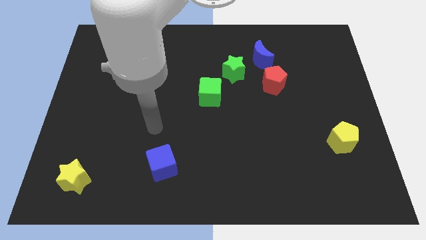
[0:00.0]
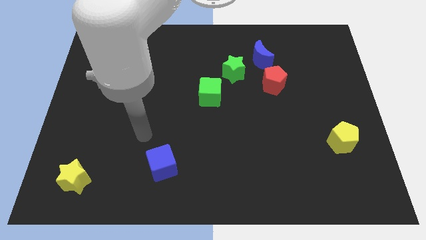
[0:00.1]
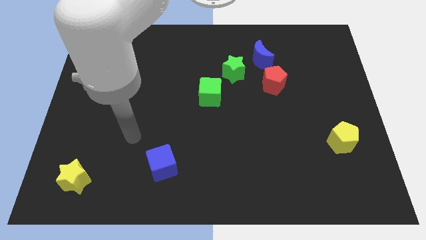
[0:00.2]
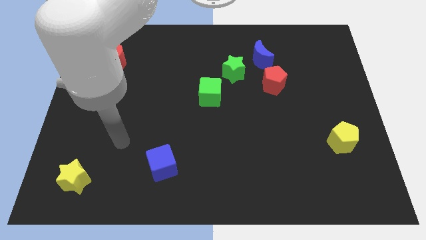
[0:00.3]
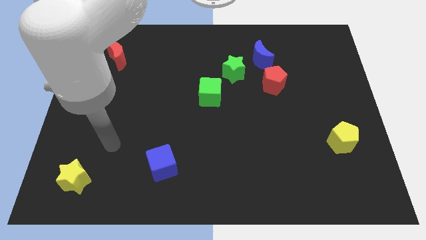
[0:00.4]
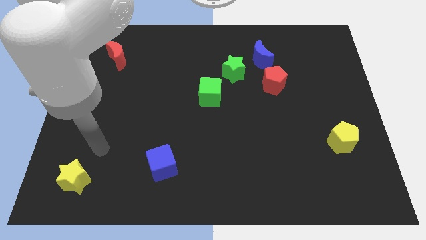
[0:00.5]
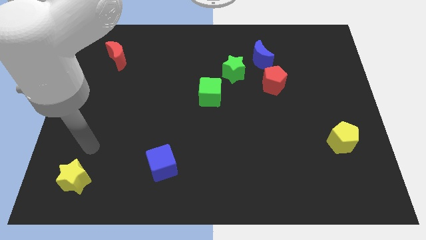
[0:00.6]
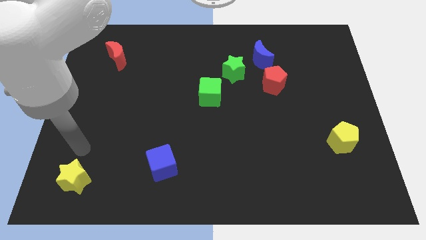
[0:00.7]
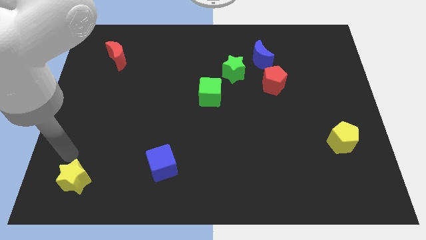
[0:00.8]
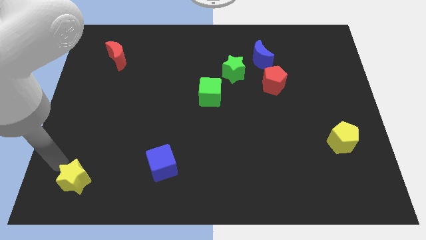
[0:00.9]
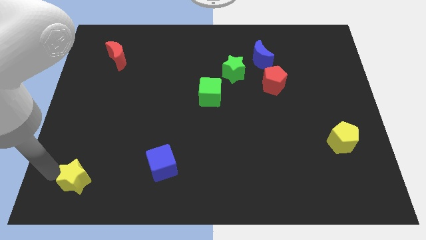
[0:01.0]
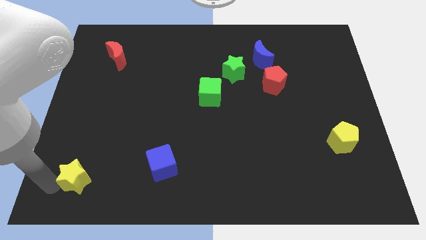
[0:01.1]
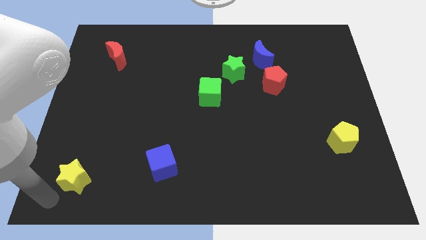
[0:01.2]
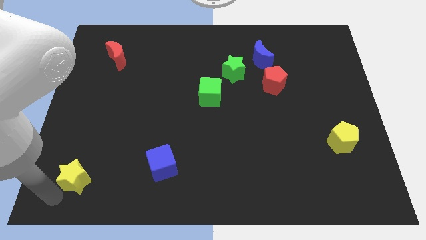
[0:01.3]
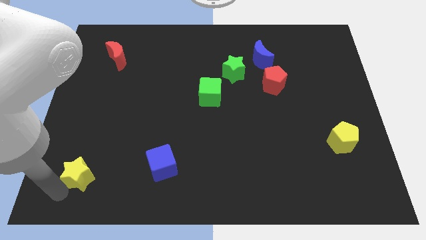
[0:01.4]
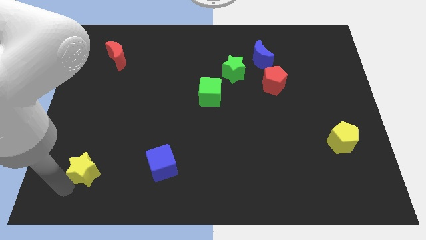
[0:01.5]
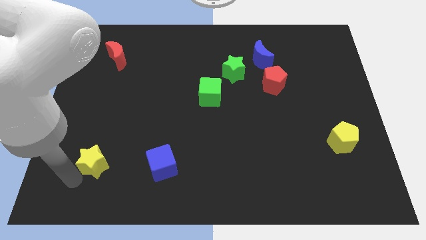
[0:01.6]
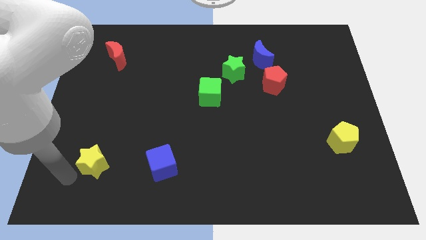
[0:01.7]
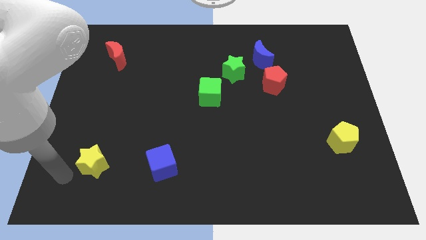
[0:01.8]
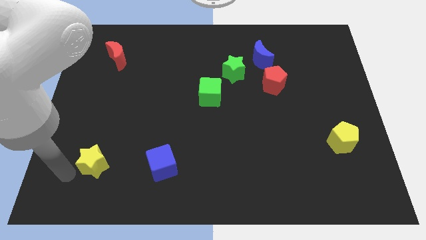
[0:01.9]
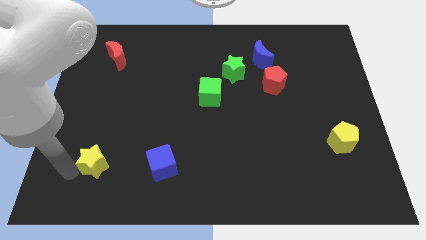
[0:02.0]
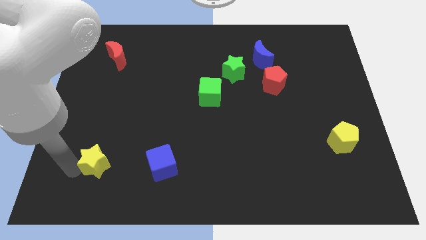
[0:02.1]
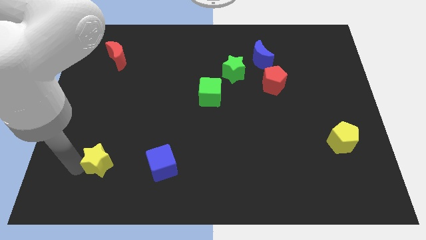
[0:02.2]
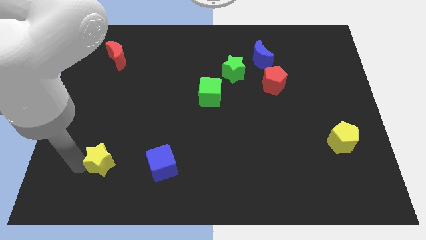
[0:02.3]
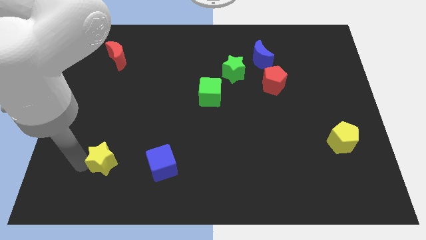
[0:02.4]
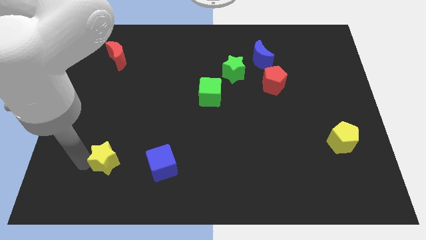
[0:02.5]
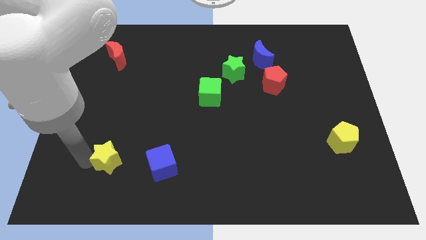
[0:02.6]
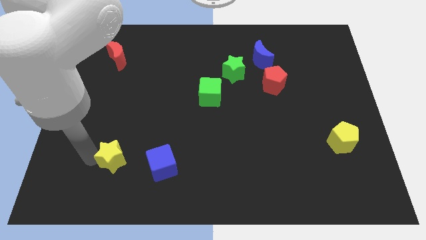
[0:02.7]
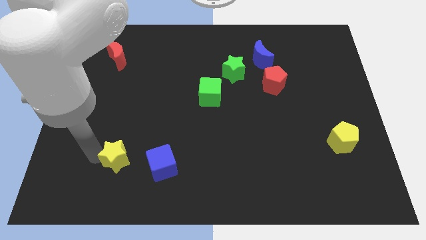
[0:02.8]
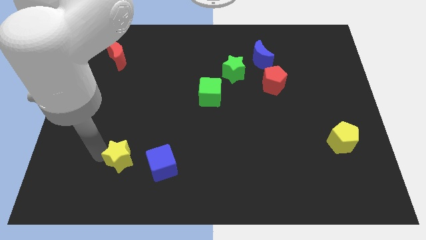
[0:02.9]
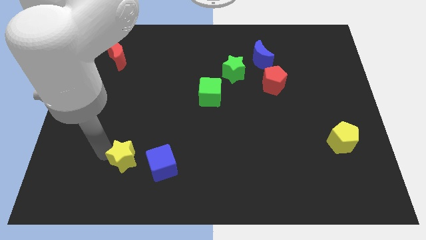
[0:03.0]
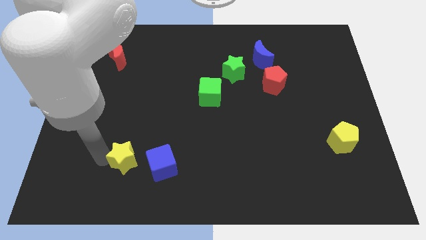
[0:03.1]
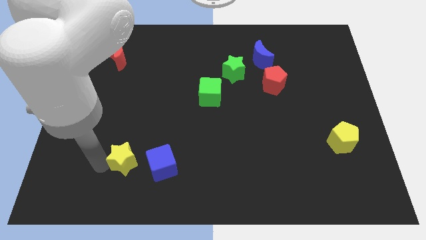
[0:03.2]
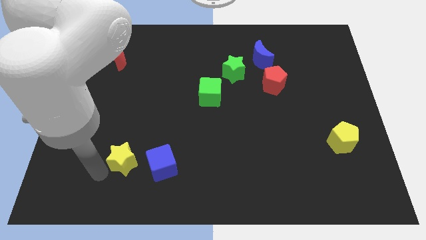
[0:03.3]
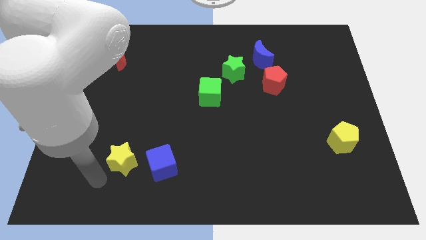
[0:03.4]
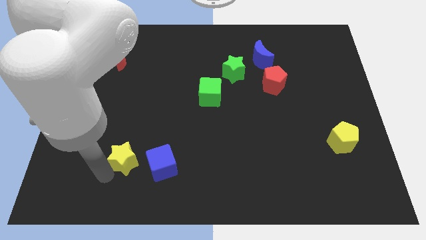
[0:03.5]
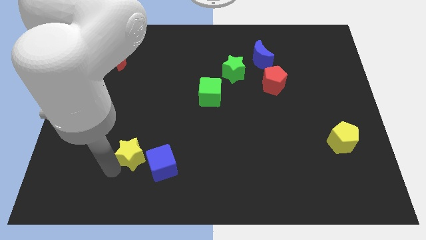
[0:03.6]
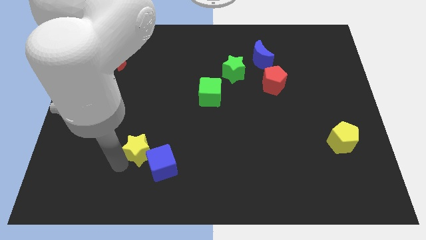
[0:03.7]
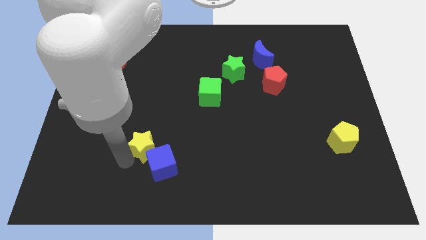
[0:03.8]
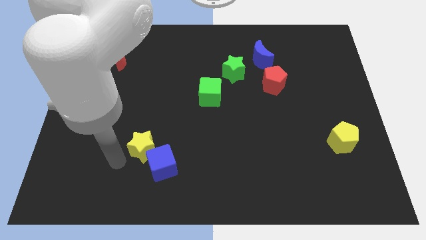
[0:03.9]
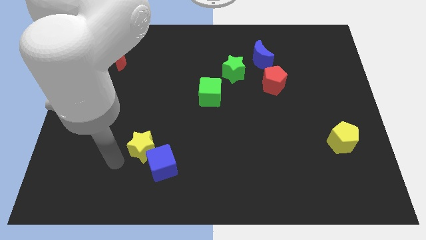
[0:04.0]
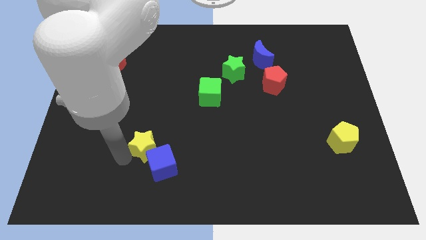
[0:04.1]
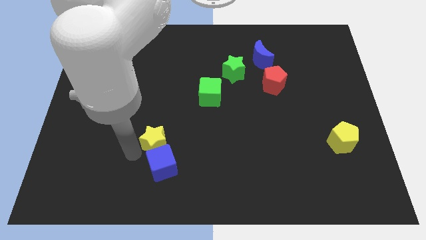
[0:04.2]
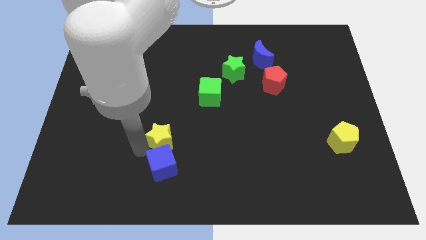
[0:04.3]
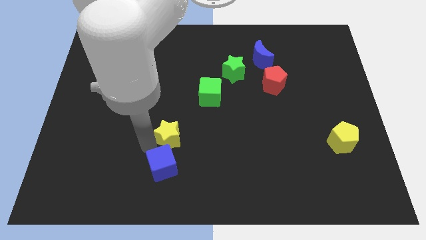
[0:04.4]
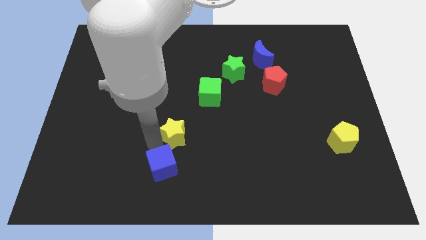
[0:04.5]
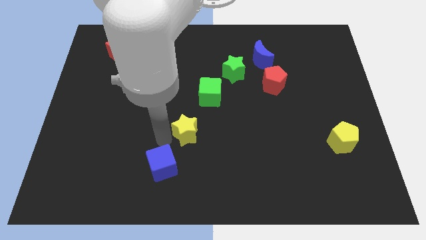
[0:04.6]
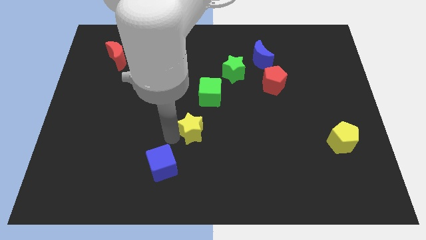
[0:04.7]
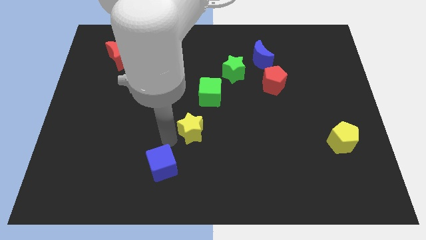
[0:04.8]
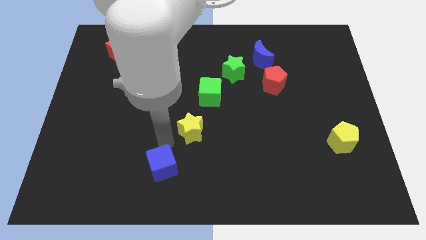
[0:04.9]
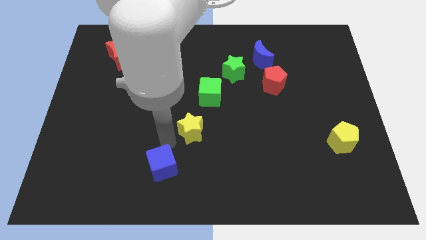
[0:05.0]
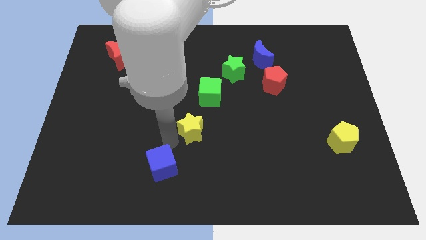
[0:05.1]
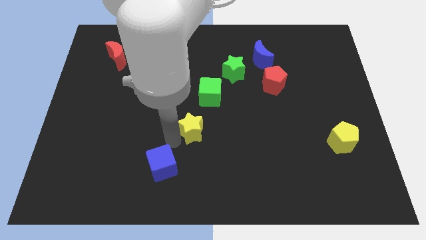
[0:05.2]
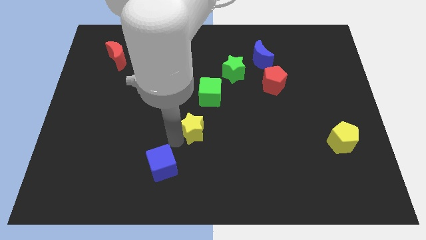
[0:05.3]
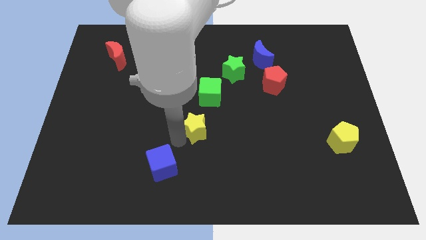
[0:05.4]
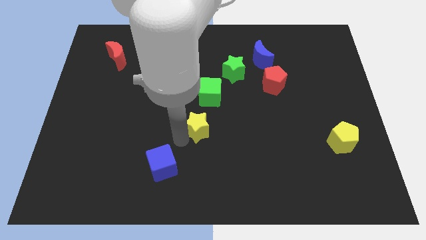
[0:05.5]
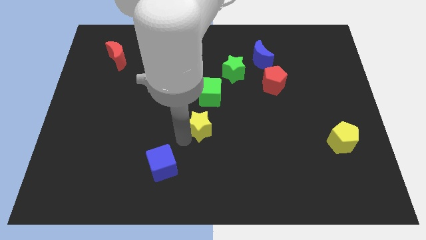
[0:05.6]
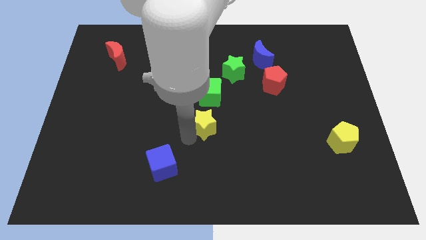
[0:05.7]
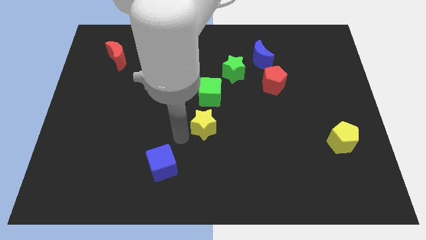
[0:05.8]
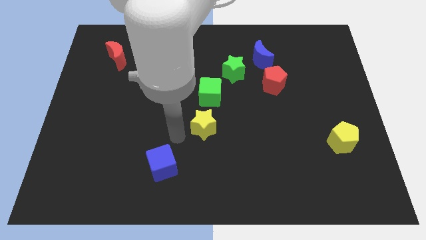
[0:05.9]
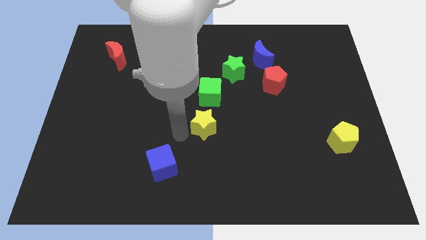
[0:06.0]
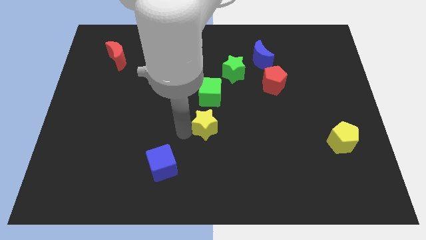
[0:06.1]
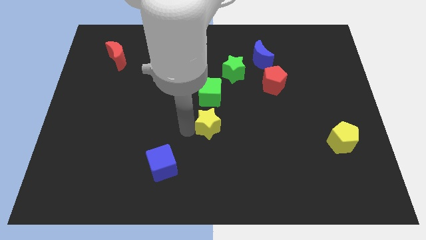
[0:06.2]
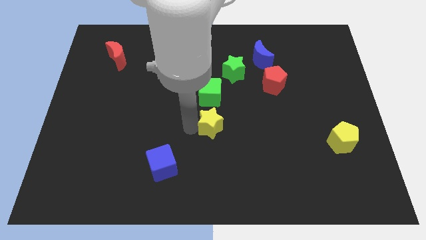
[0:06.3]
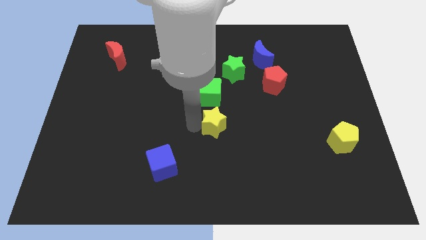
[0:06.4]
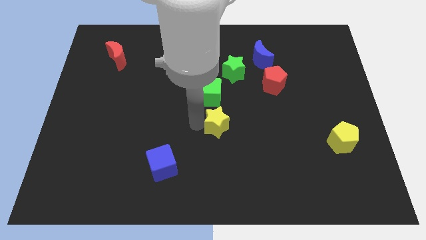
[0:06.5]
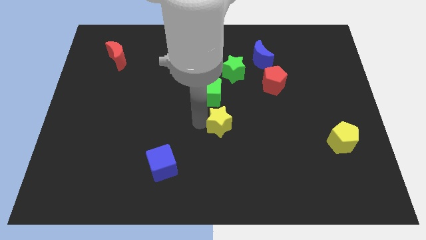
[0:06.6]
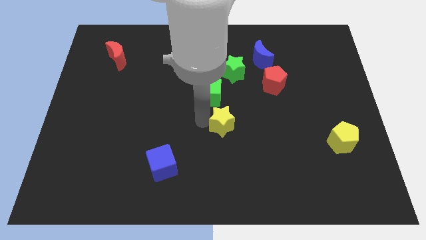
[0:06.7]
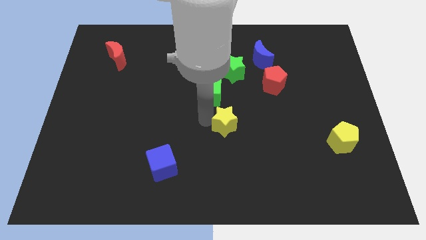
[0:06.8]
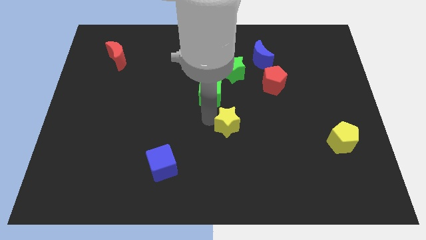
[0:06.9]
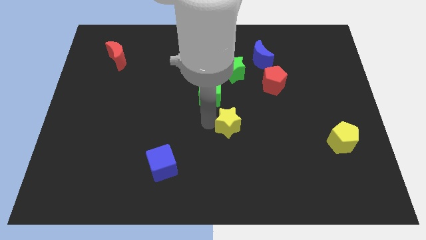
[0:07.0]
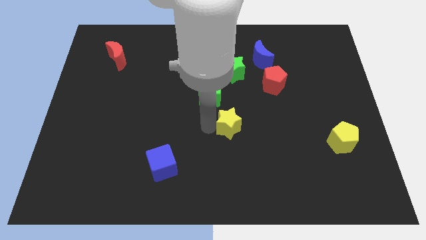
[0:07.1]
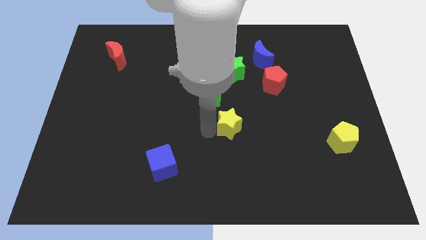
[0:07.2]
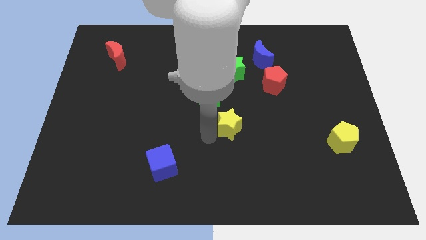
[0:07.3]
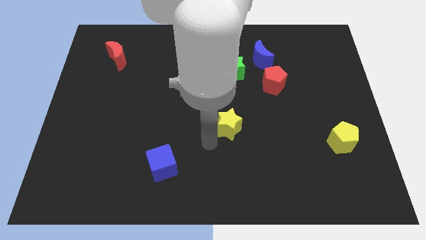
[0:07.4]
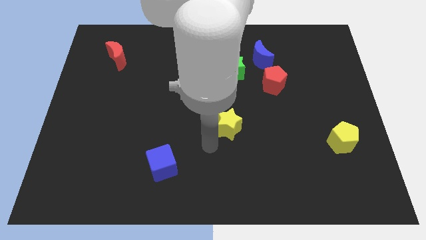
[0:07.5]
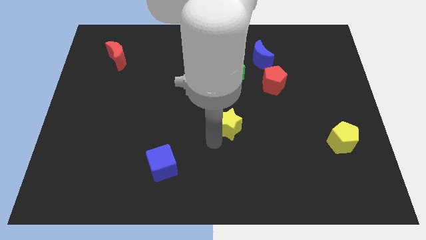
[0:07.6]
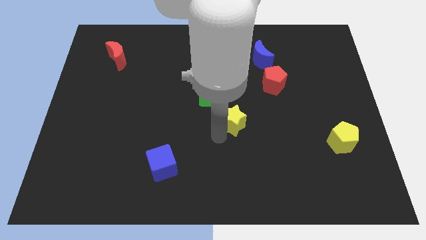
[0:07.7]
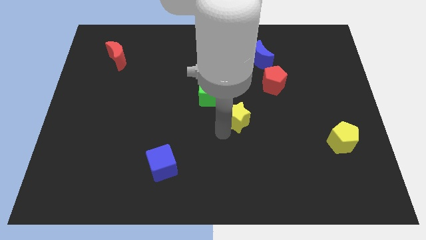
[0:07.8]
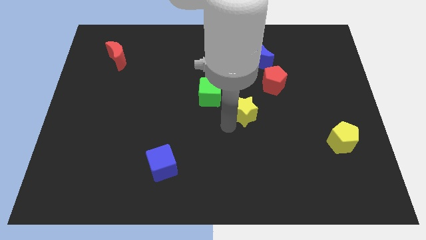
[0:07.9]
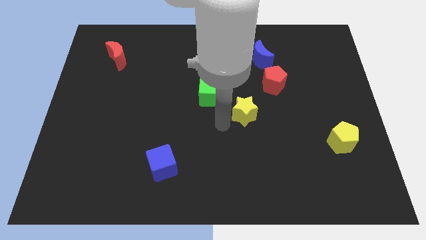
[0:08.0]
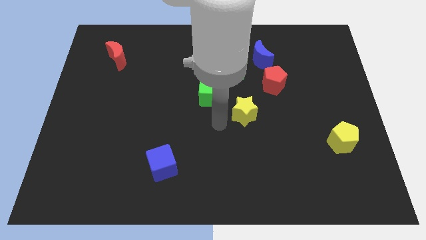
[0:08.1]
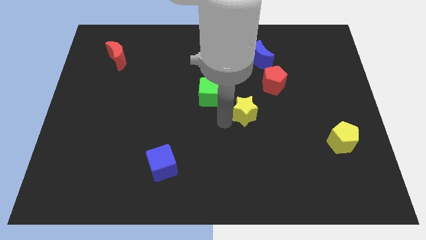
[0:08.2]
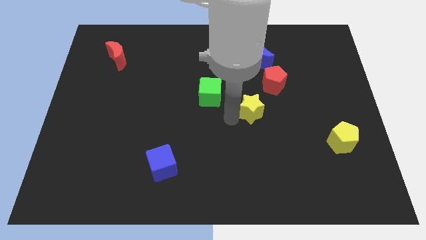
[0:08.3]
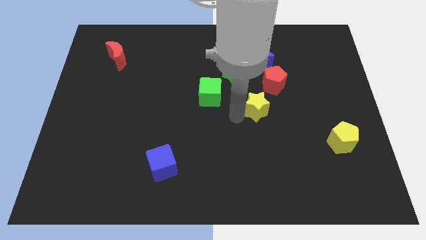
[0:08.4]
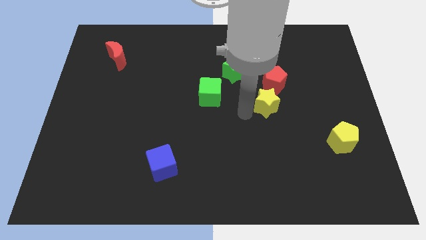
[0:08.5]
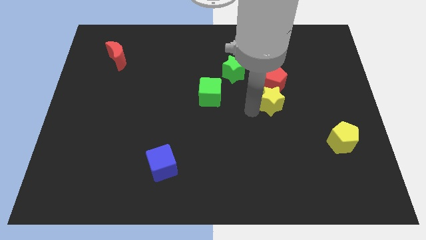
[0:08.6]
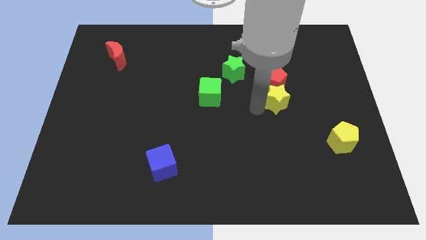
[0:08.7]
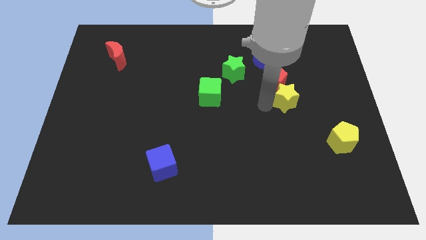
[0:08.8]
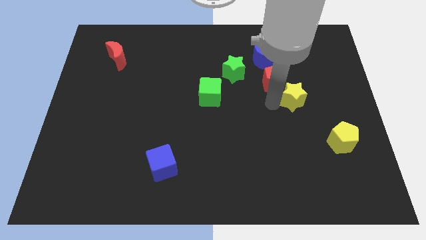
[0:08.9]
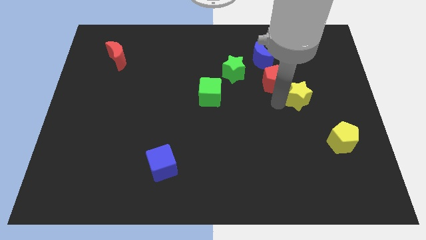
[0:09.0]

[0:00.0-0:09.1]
push the yellow star just right of the red pentagon
